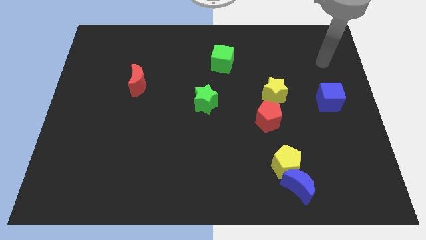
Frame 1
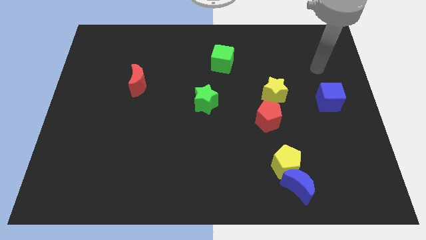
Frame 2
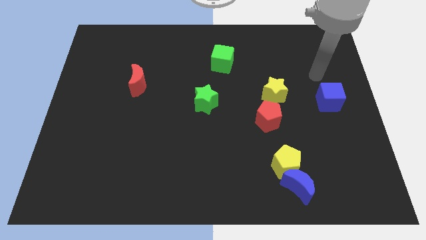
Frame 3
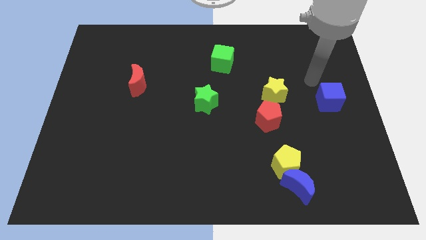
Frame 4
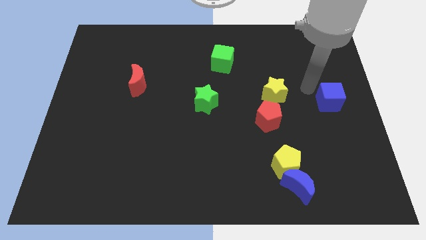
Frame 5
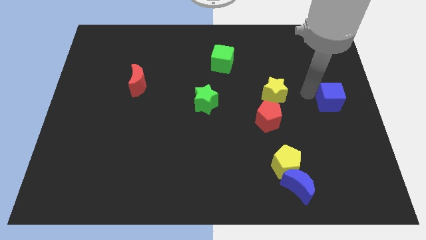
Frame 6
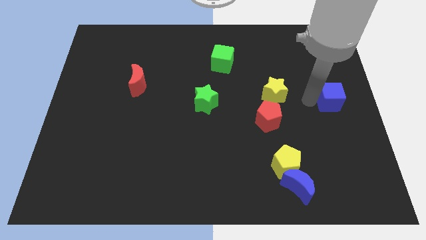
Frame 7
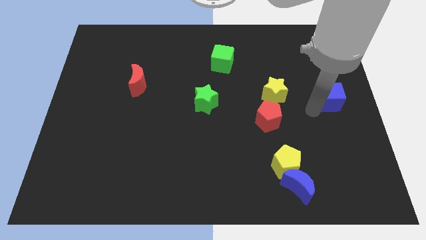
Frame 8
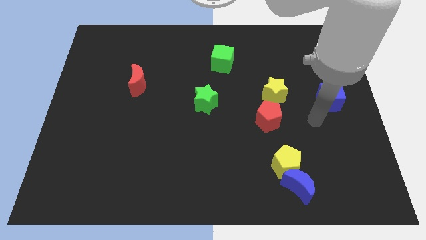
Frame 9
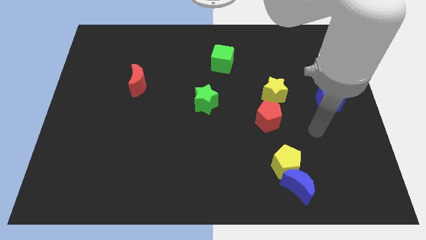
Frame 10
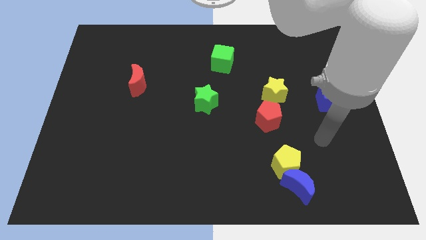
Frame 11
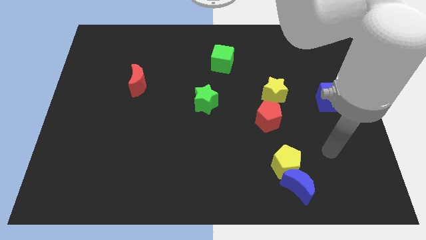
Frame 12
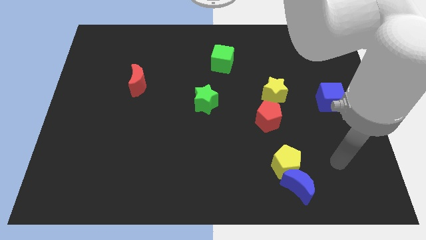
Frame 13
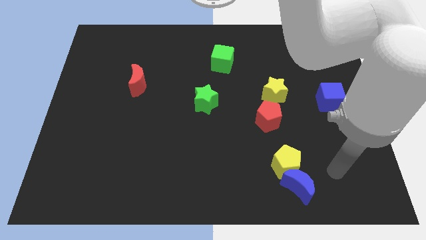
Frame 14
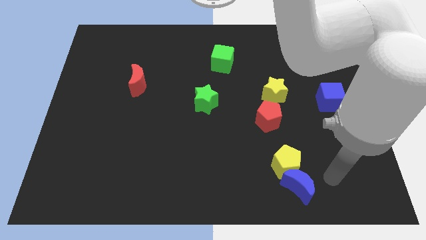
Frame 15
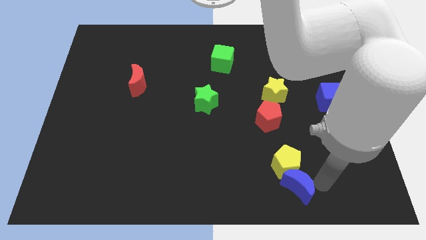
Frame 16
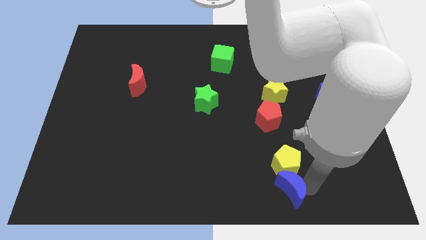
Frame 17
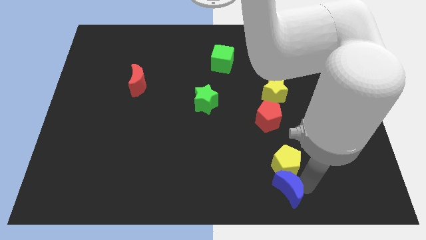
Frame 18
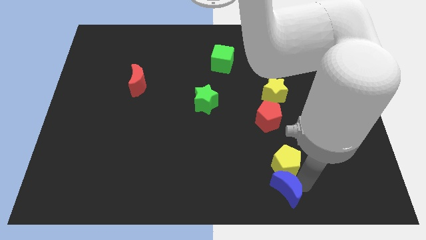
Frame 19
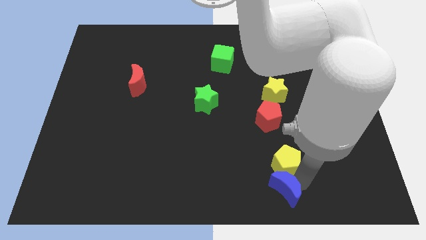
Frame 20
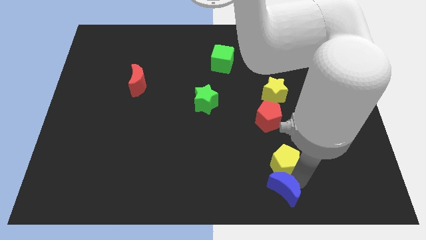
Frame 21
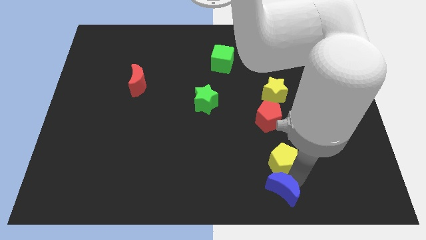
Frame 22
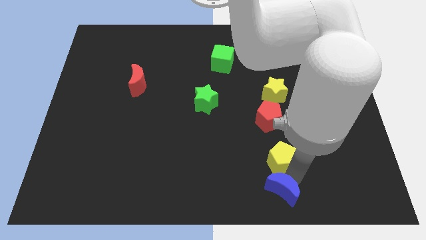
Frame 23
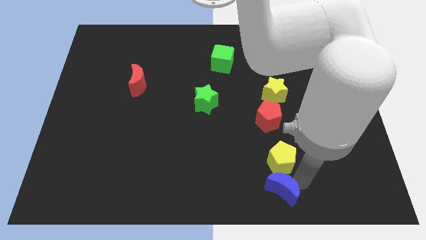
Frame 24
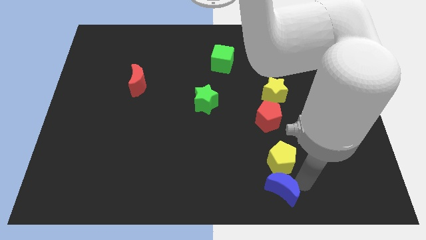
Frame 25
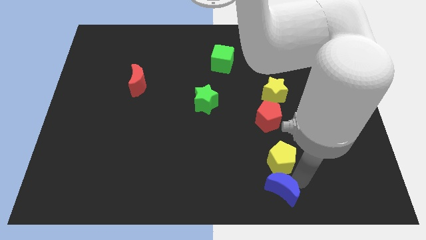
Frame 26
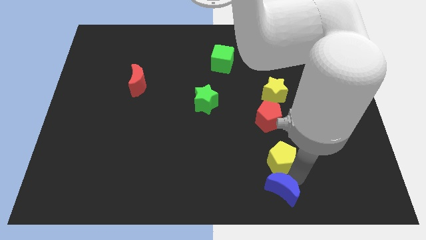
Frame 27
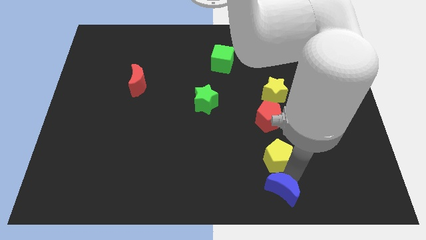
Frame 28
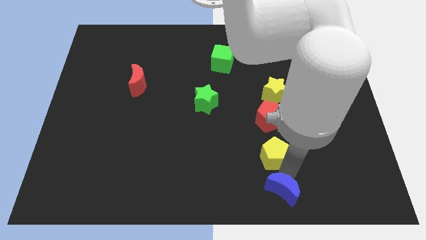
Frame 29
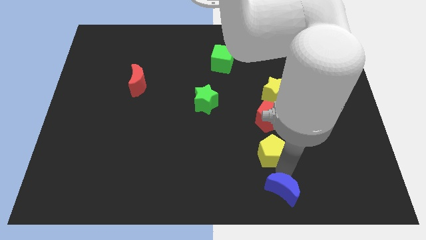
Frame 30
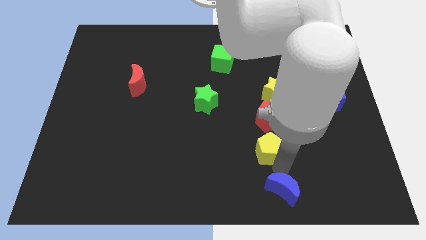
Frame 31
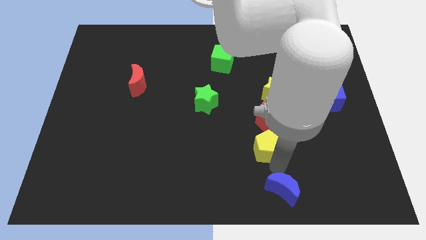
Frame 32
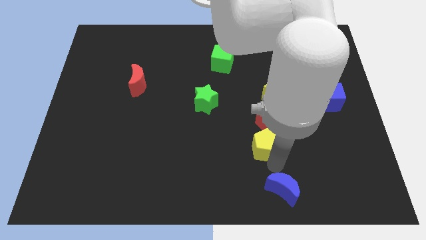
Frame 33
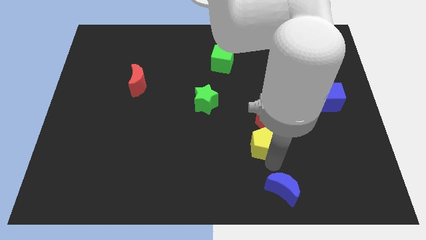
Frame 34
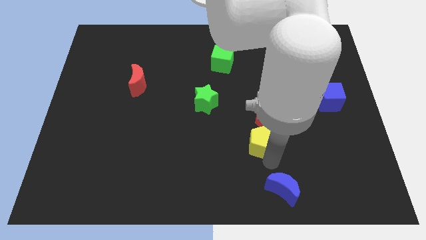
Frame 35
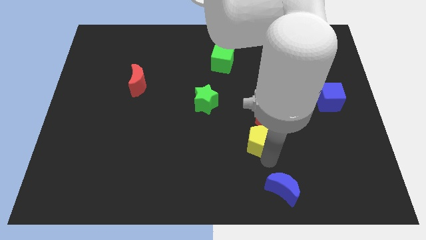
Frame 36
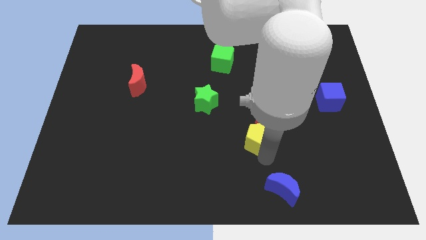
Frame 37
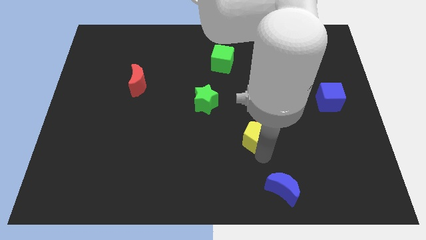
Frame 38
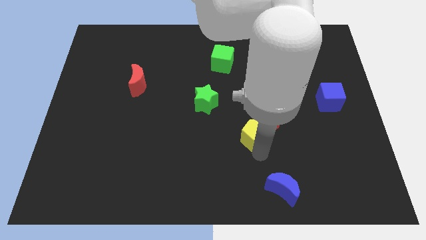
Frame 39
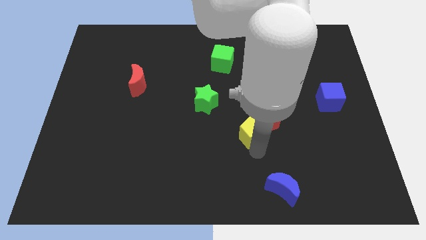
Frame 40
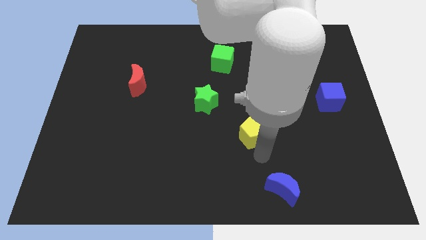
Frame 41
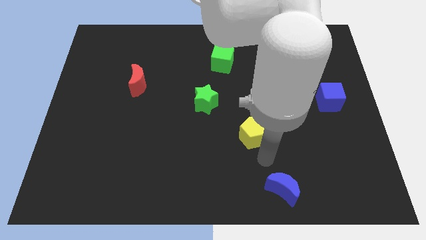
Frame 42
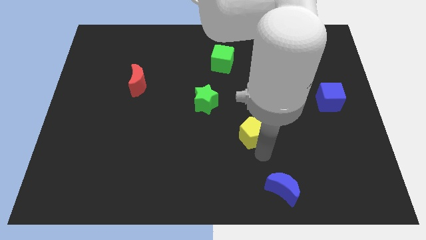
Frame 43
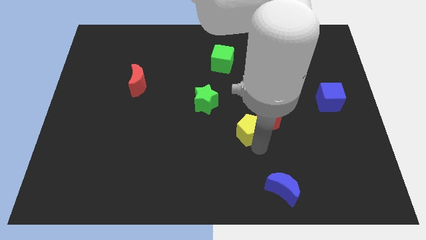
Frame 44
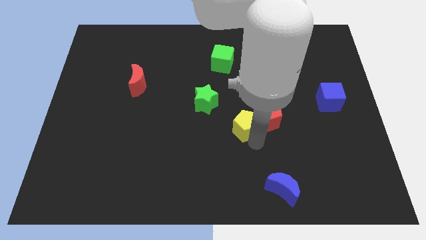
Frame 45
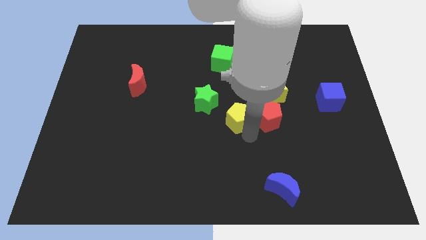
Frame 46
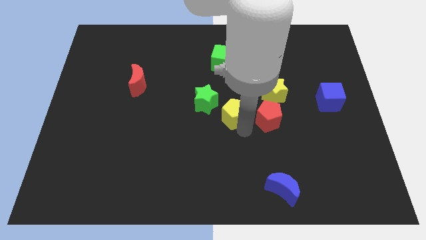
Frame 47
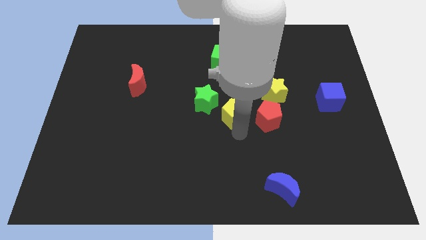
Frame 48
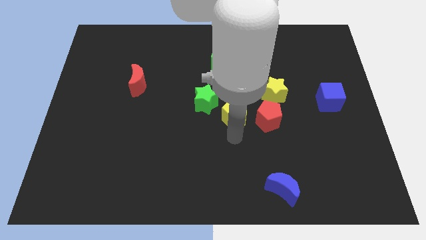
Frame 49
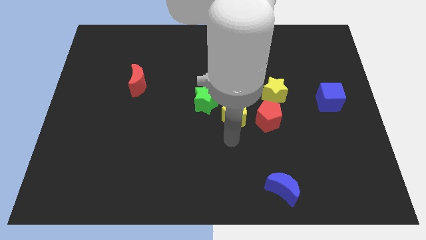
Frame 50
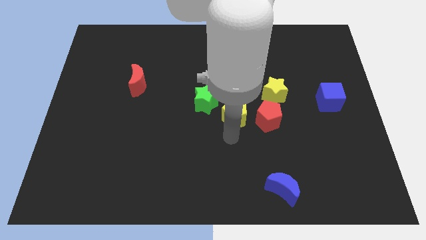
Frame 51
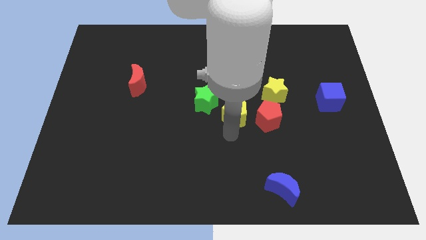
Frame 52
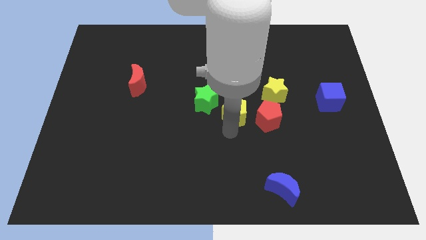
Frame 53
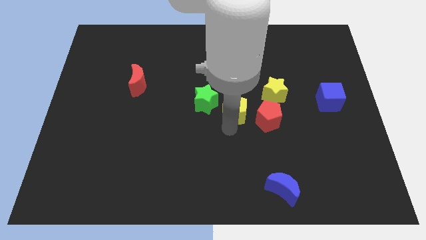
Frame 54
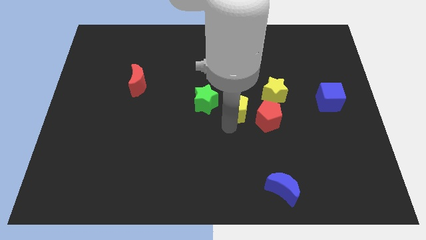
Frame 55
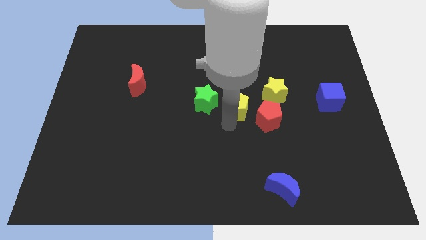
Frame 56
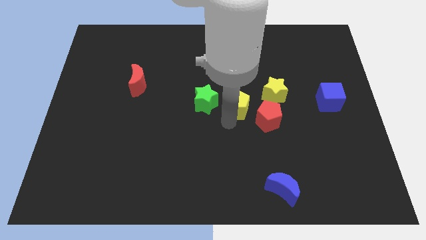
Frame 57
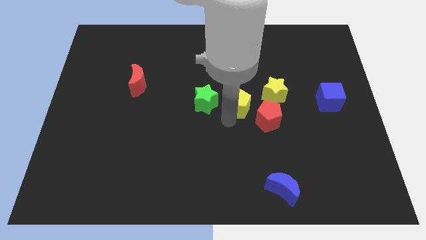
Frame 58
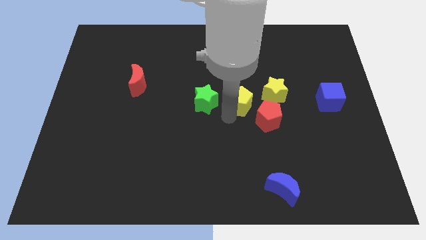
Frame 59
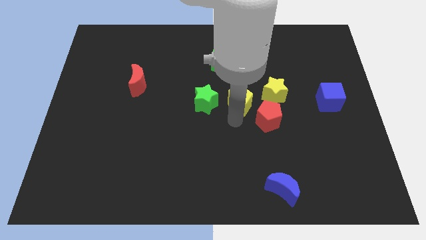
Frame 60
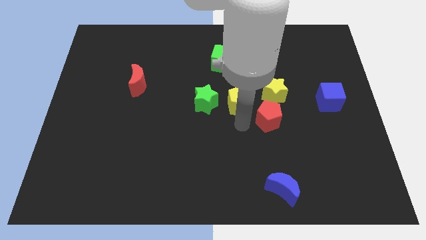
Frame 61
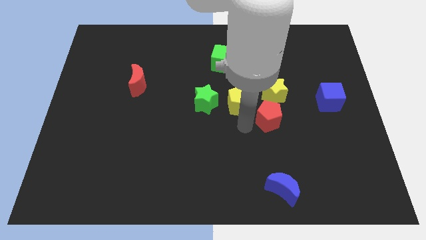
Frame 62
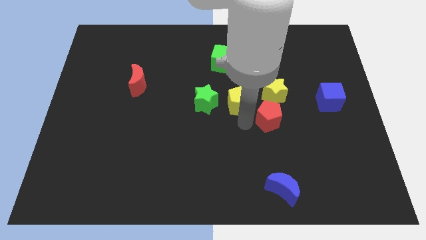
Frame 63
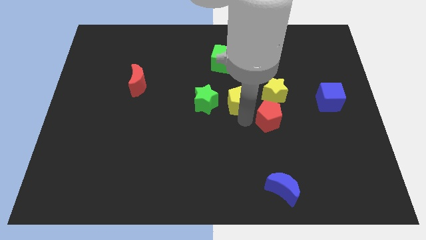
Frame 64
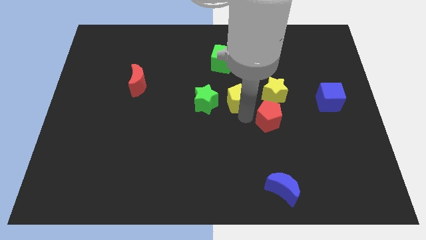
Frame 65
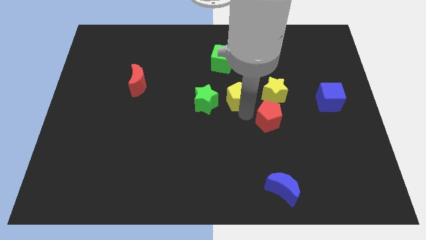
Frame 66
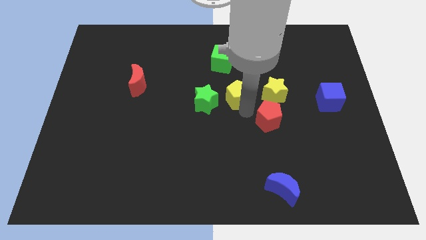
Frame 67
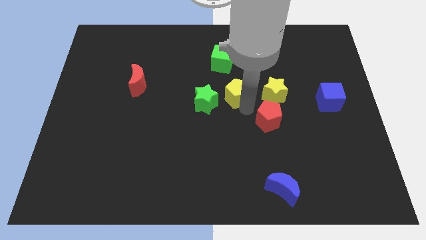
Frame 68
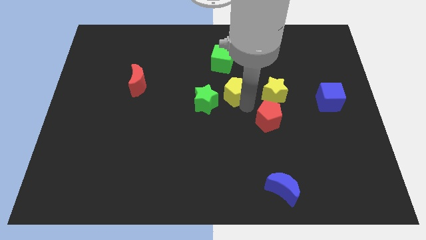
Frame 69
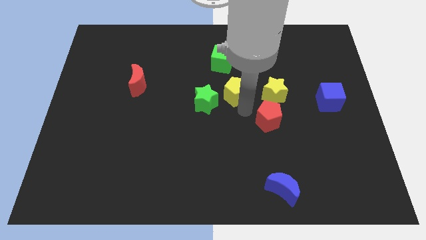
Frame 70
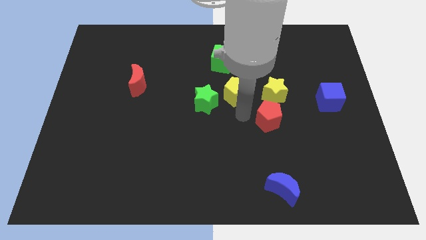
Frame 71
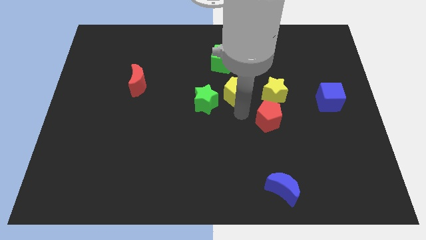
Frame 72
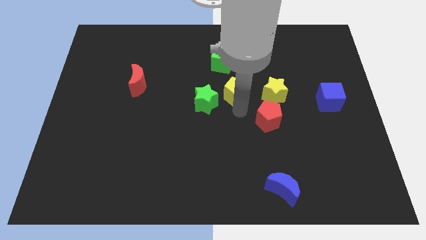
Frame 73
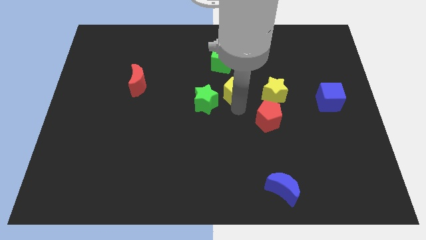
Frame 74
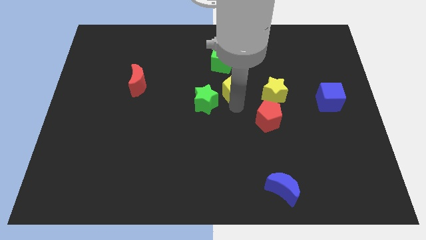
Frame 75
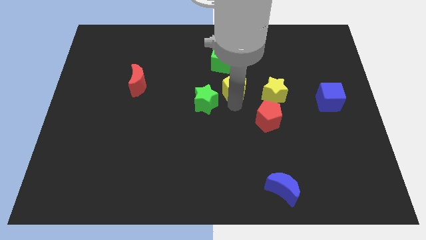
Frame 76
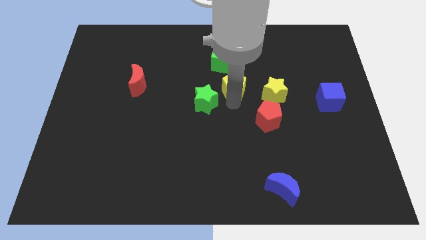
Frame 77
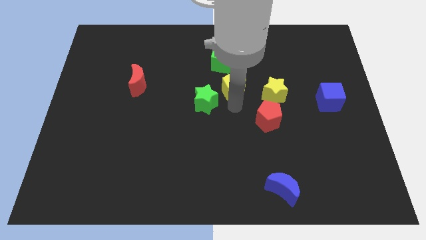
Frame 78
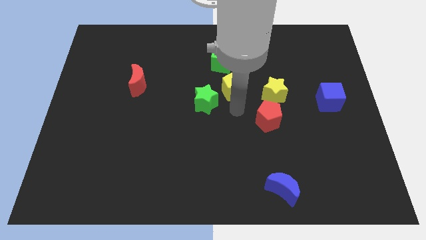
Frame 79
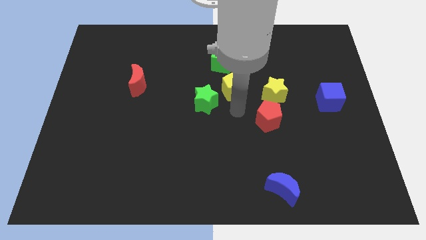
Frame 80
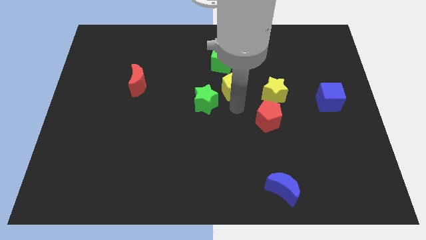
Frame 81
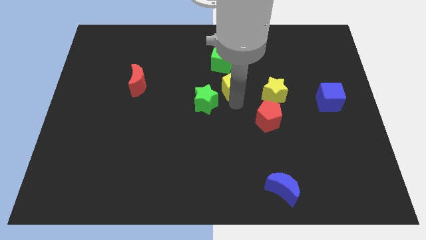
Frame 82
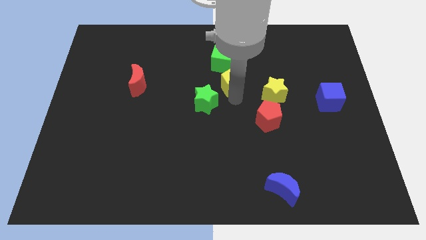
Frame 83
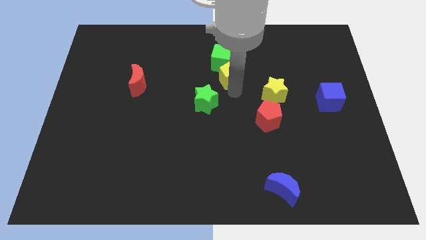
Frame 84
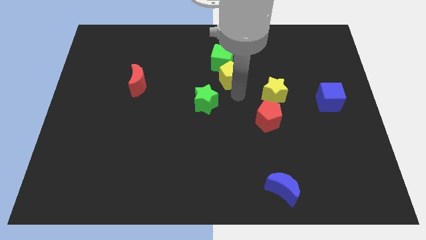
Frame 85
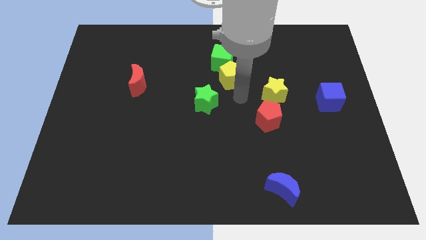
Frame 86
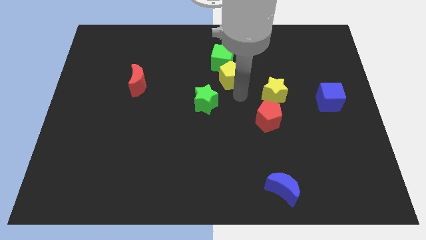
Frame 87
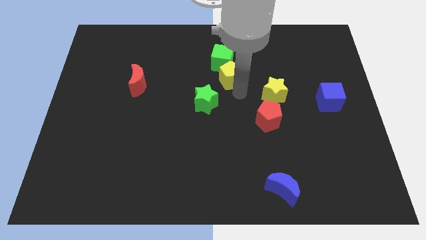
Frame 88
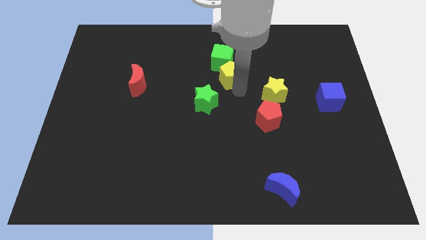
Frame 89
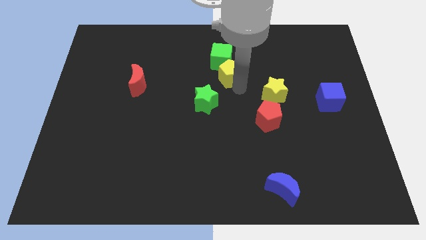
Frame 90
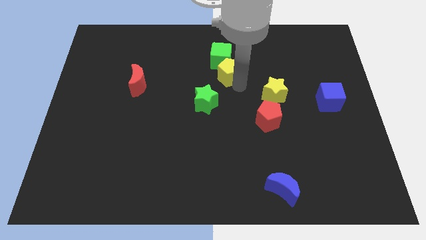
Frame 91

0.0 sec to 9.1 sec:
put the yellow pentagon close to the green cube
